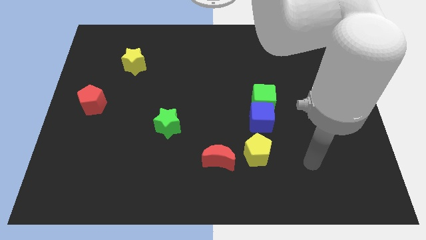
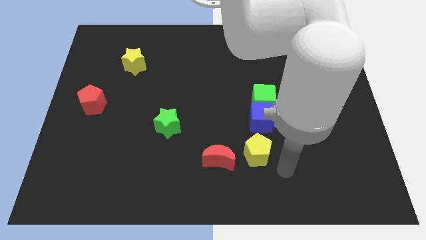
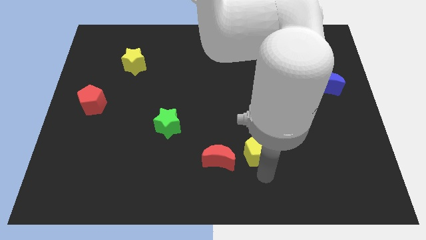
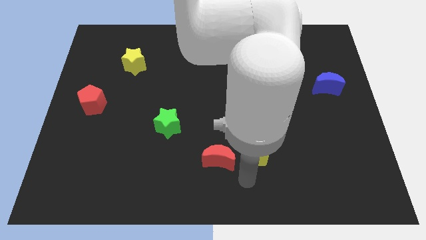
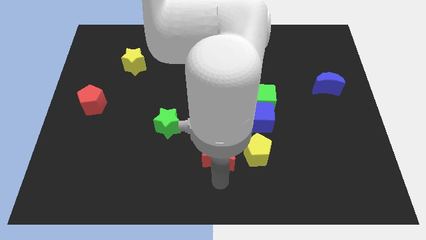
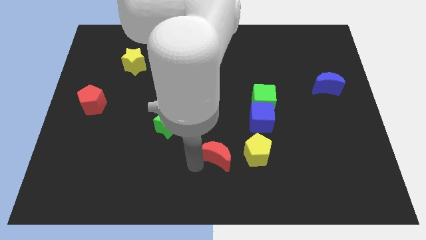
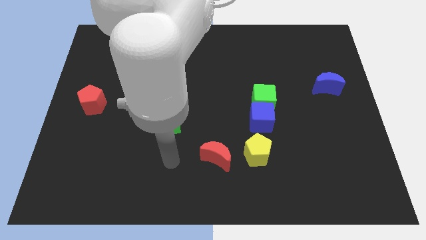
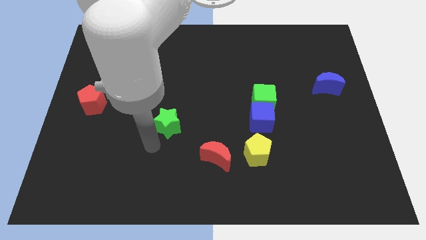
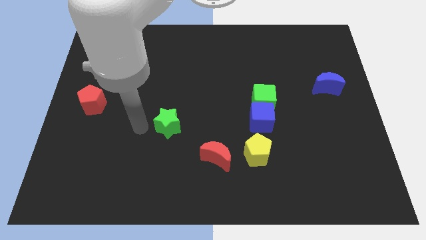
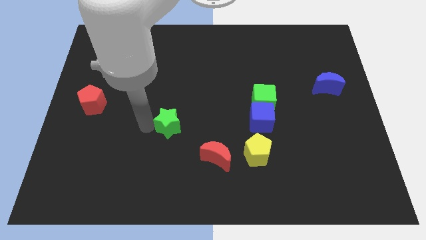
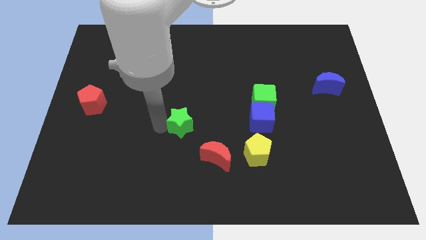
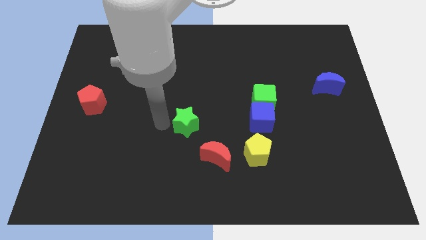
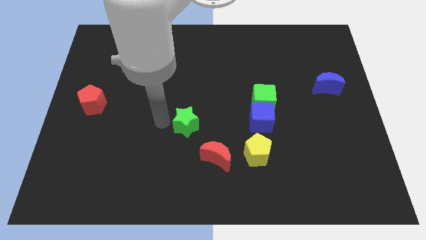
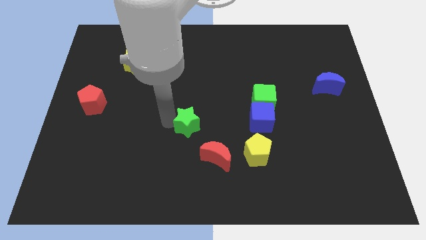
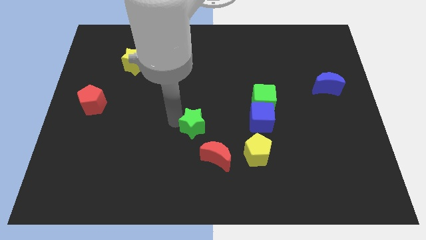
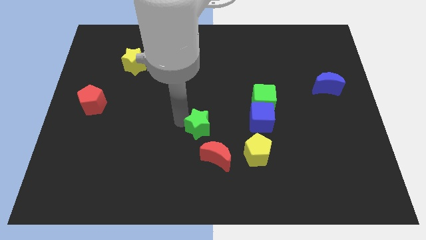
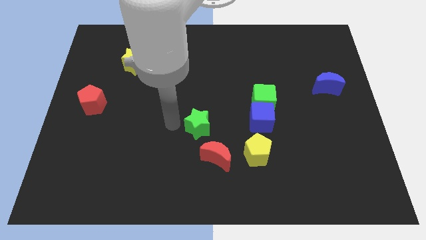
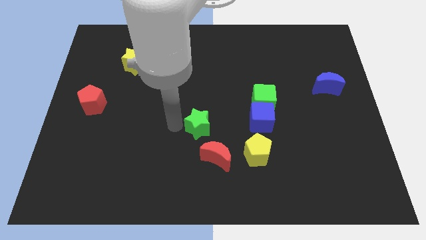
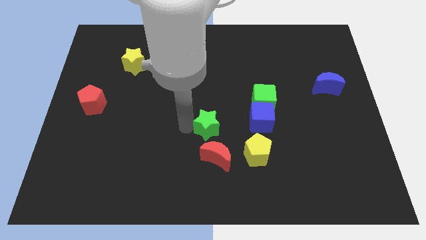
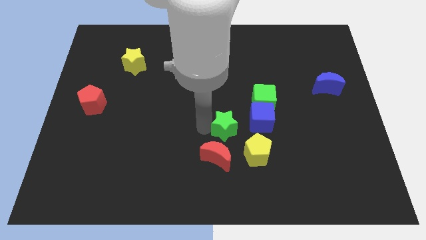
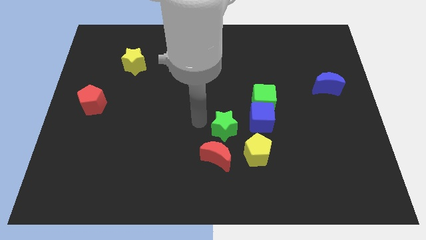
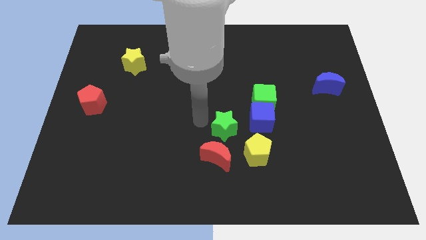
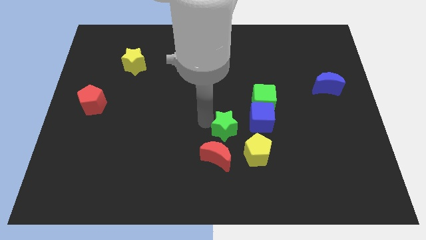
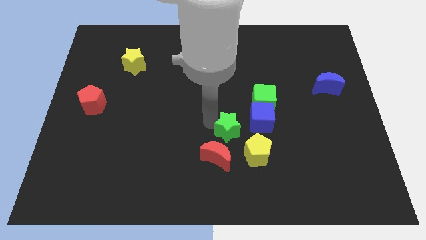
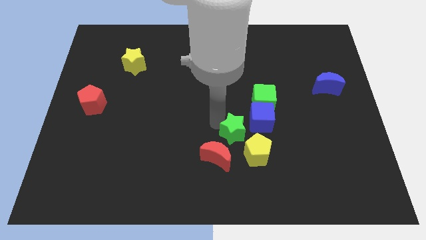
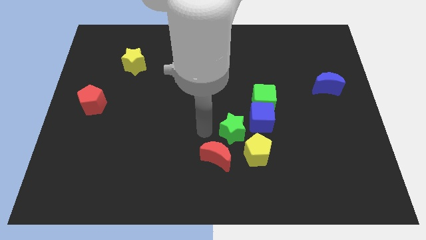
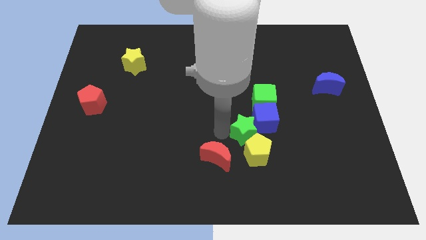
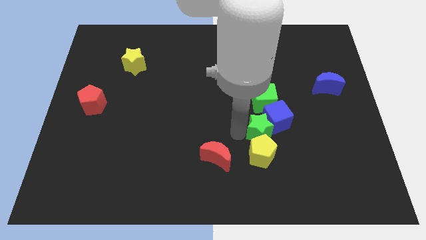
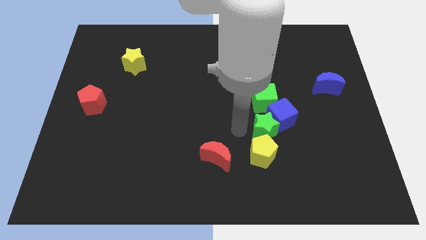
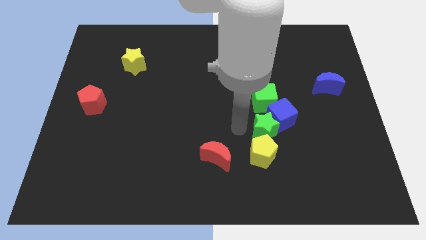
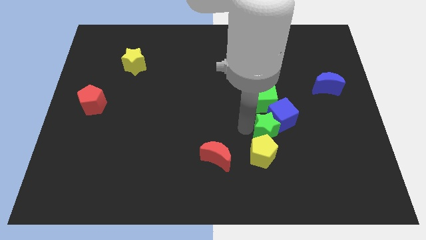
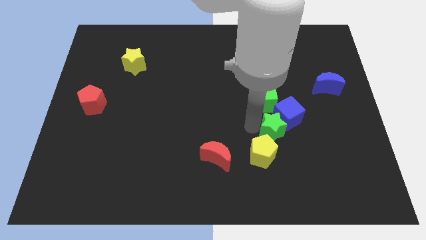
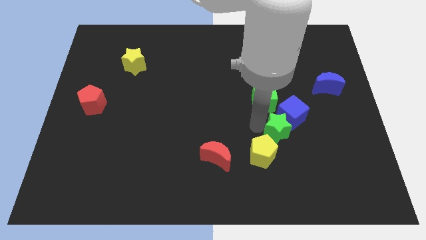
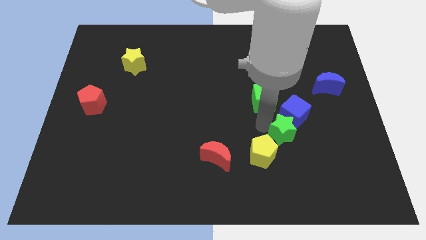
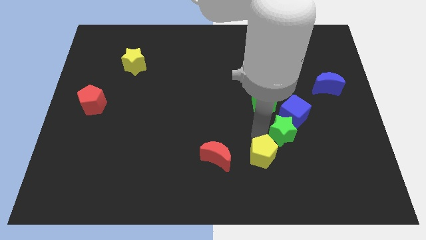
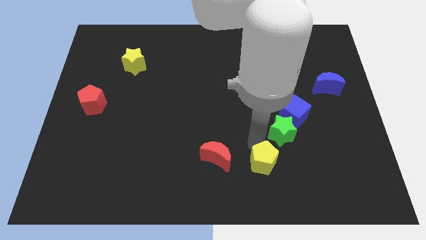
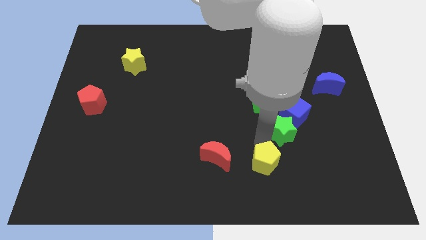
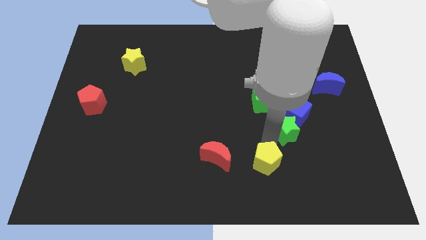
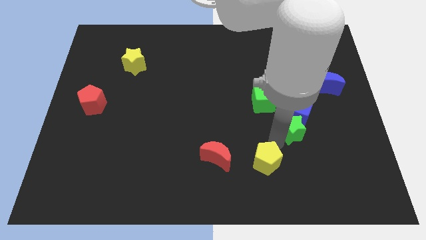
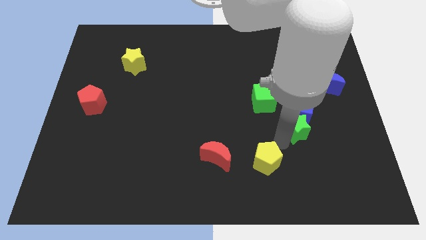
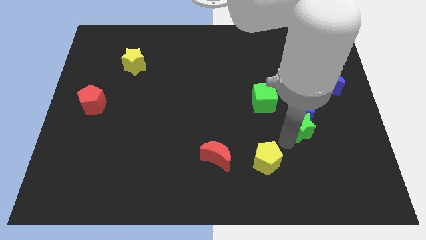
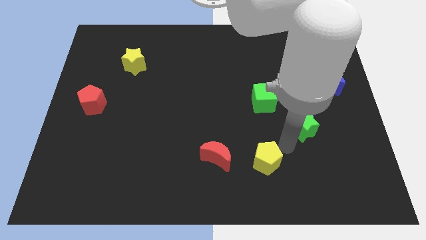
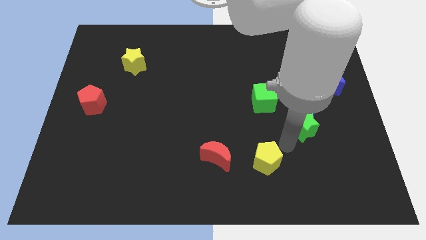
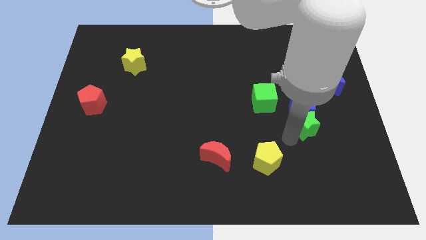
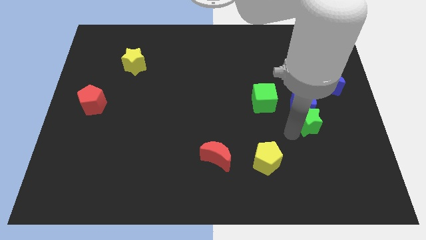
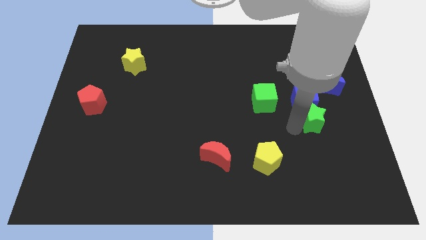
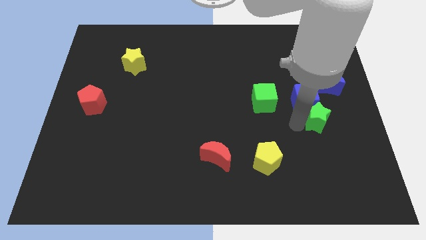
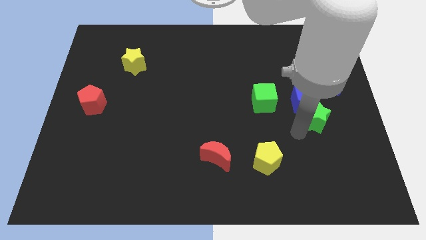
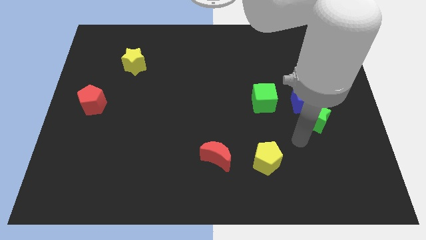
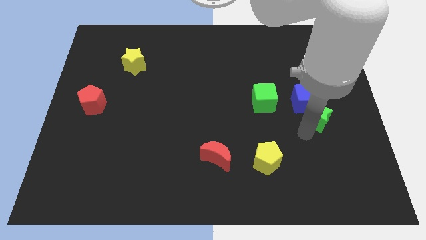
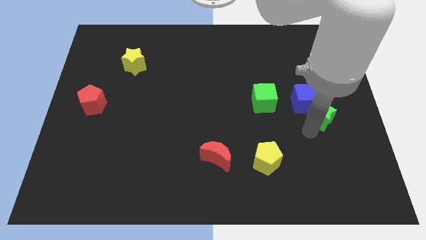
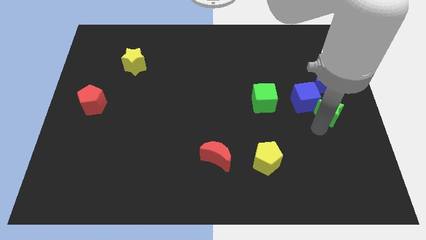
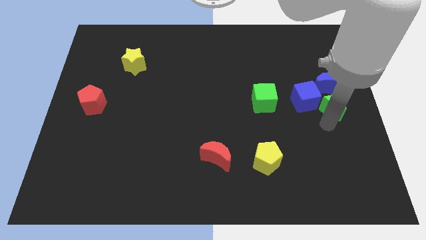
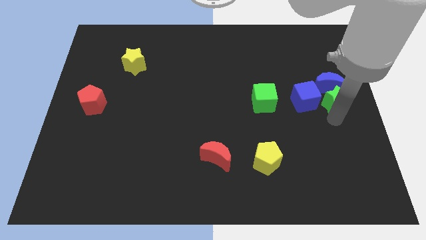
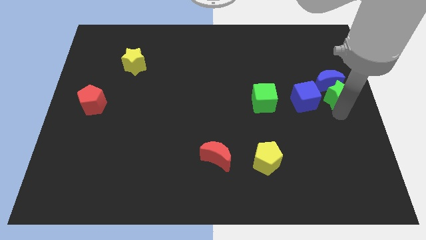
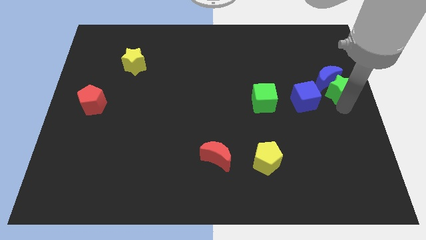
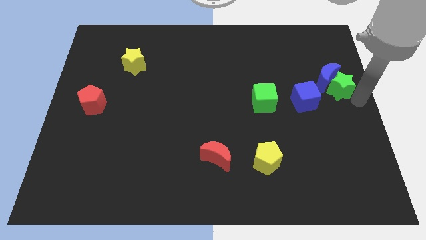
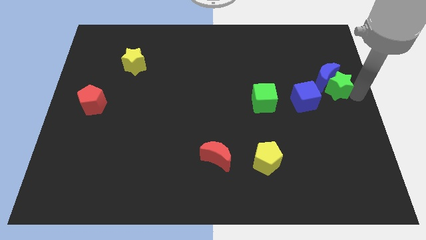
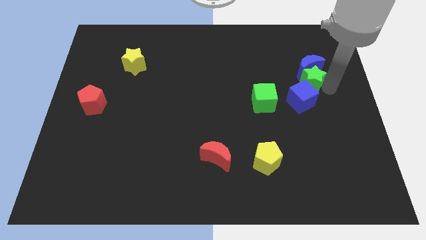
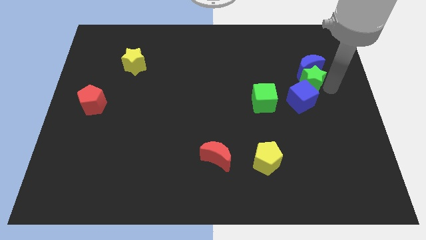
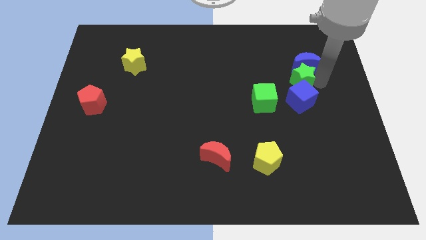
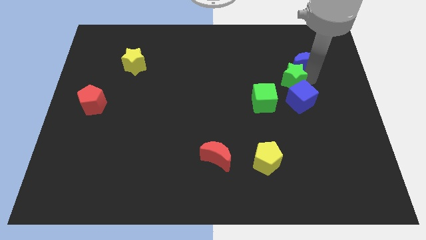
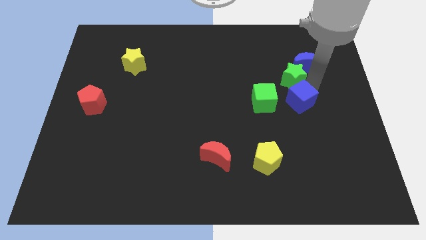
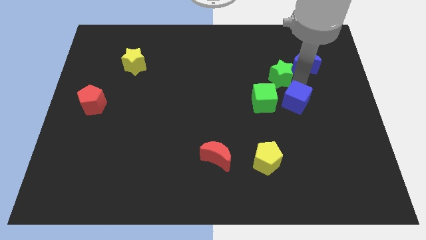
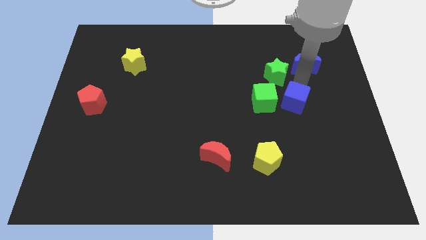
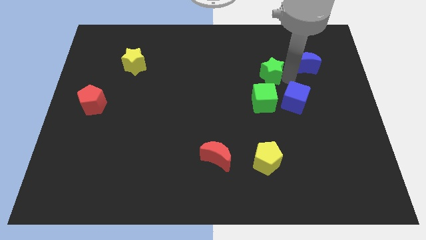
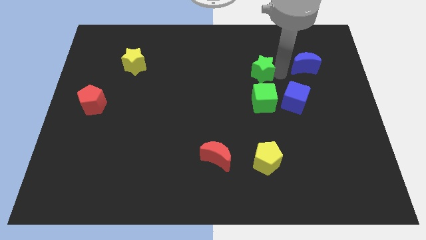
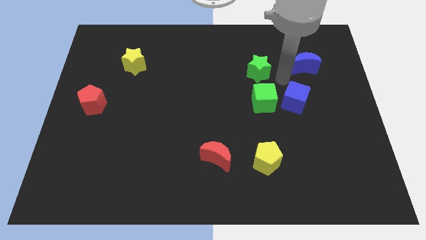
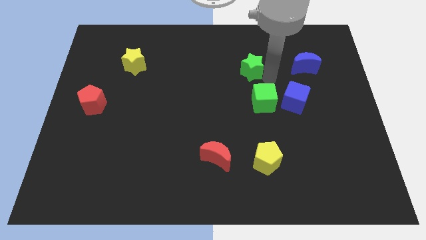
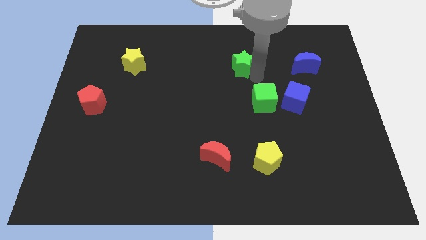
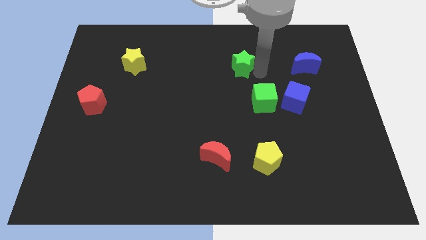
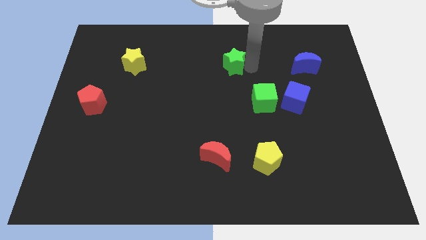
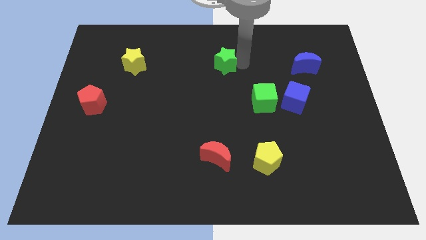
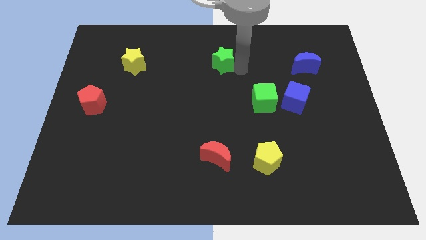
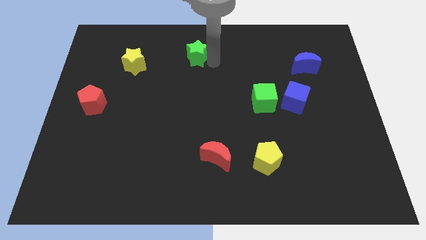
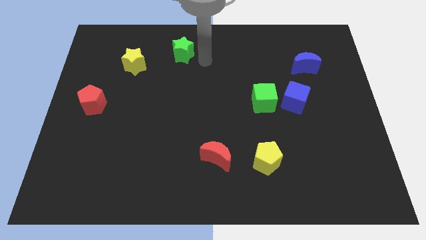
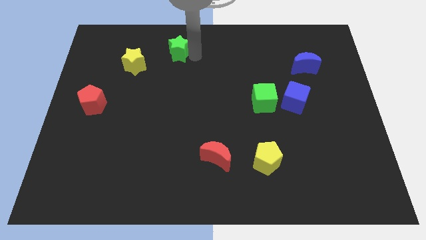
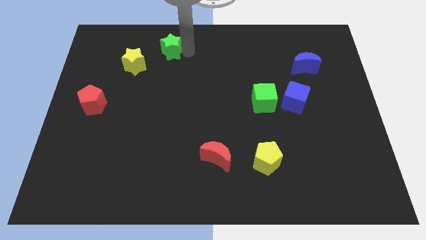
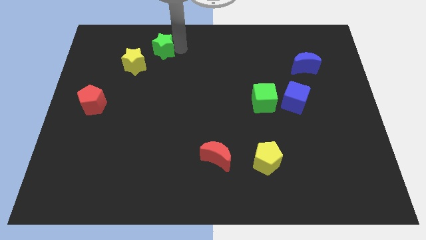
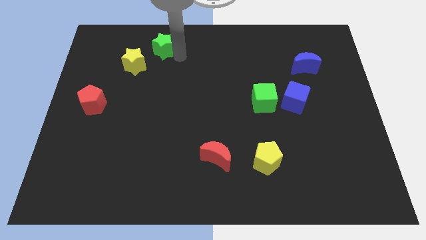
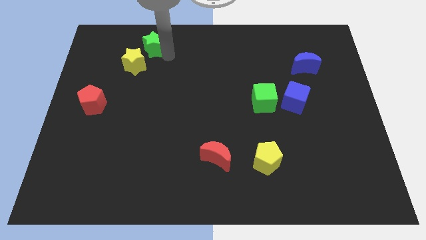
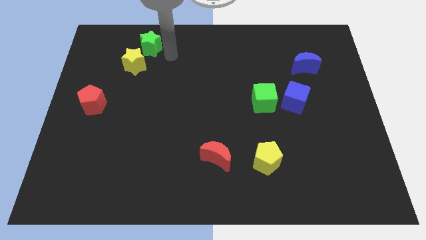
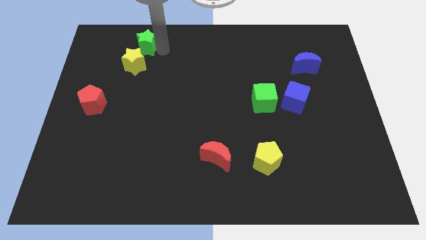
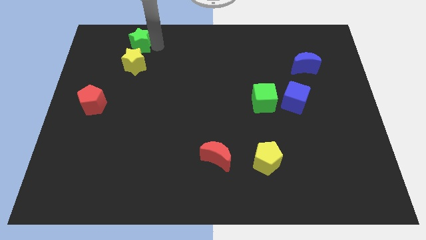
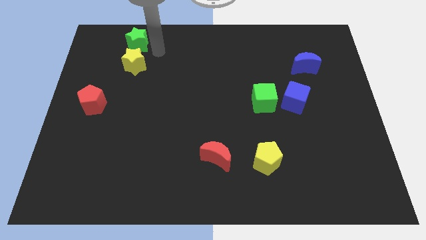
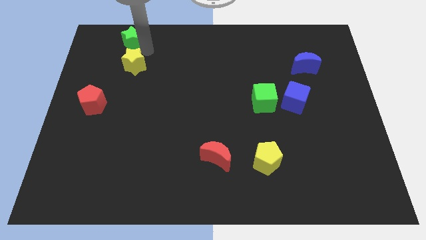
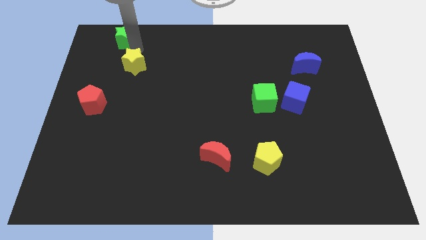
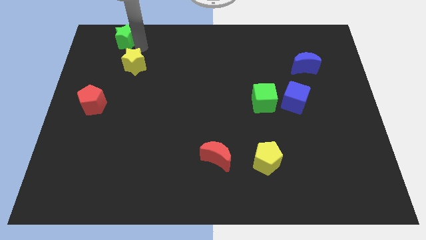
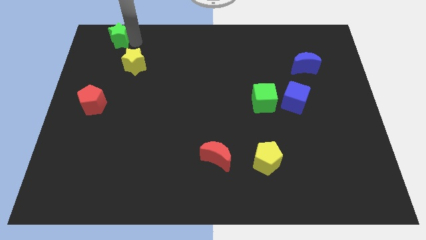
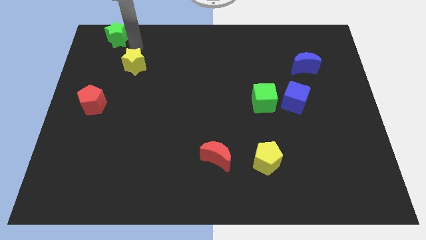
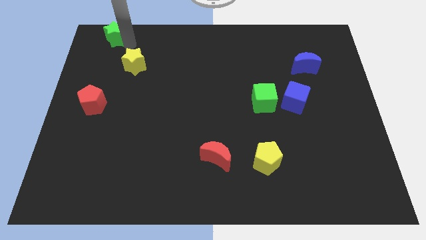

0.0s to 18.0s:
push the green star to the top left corner
